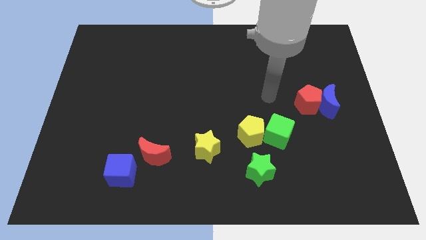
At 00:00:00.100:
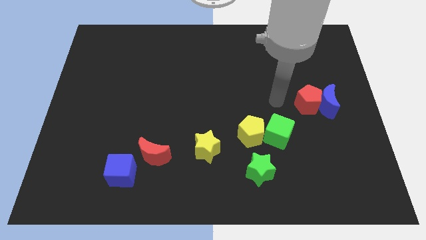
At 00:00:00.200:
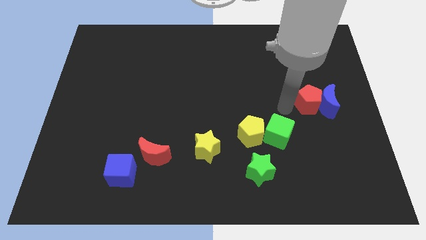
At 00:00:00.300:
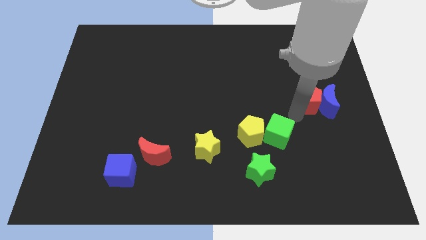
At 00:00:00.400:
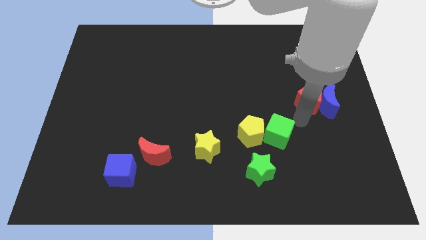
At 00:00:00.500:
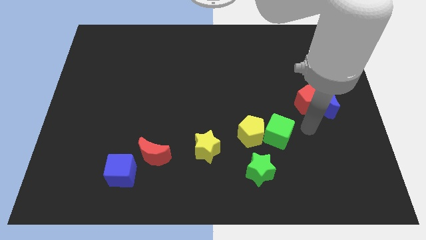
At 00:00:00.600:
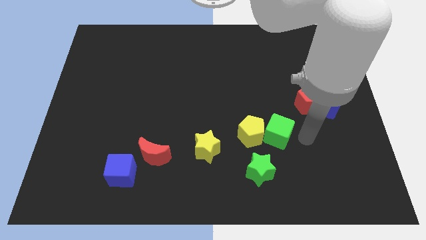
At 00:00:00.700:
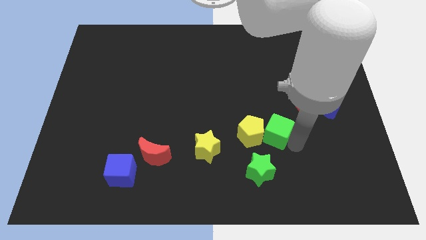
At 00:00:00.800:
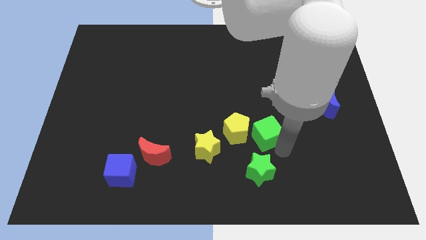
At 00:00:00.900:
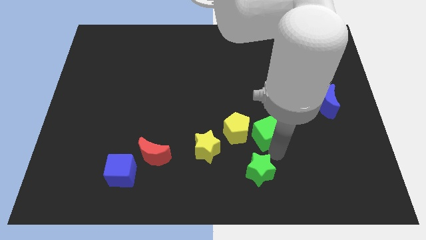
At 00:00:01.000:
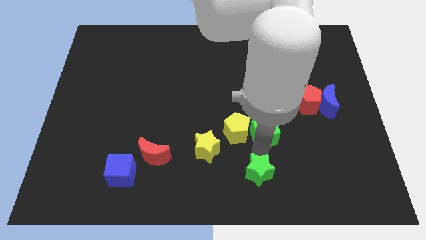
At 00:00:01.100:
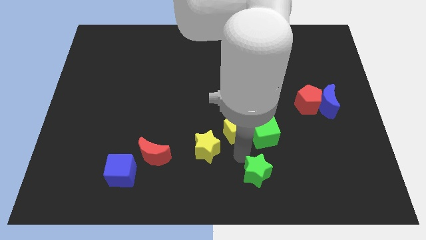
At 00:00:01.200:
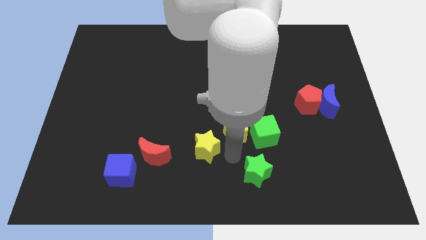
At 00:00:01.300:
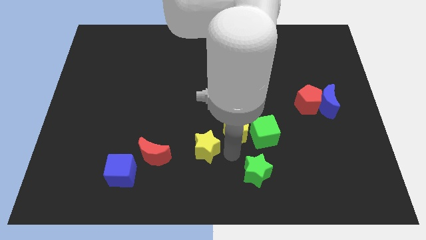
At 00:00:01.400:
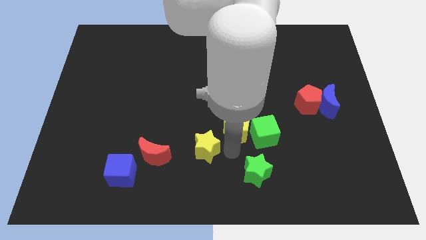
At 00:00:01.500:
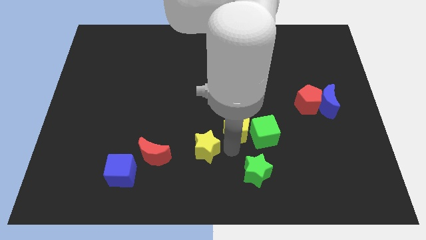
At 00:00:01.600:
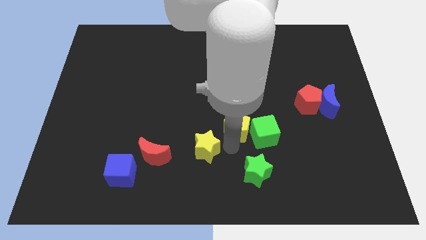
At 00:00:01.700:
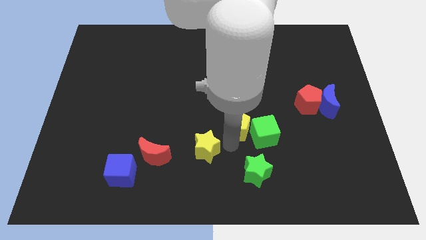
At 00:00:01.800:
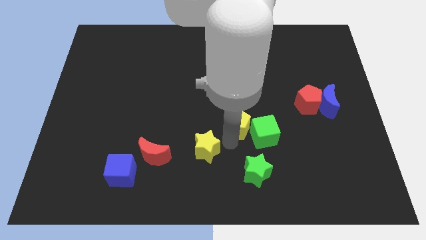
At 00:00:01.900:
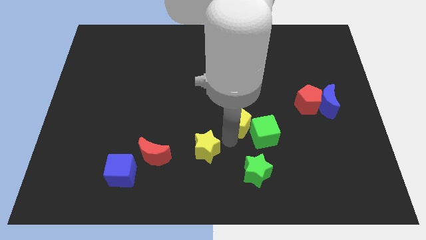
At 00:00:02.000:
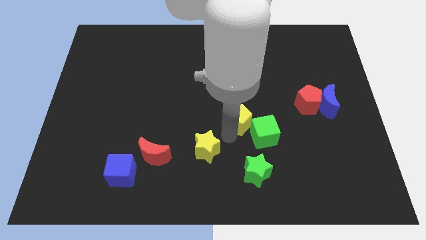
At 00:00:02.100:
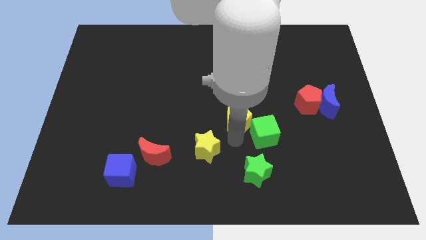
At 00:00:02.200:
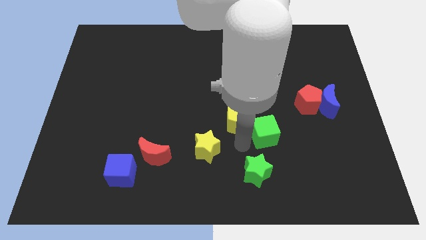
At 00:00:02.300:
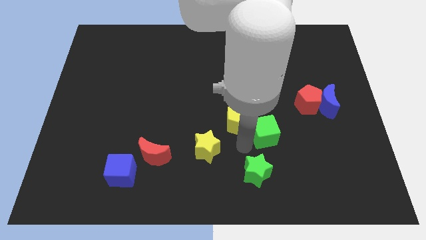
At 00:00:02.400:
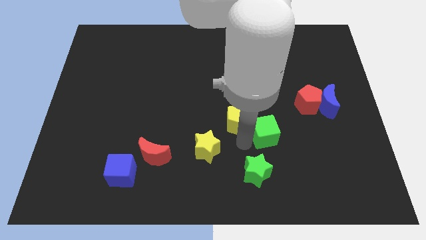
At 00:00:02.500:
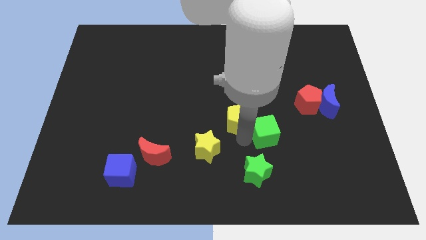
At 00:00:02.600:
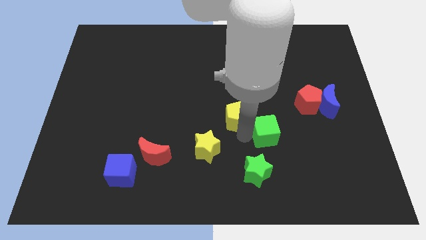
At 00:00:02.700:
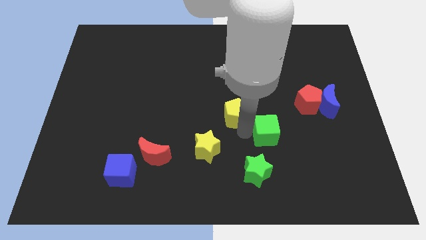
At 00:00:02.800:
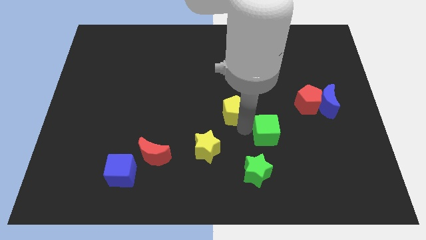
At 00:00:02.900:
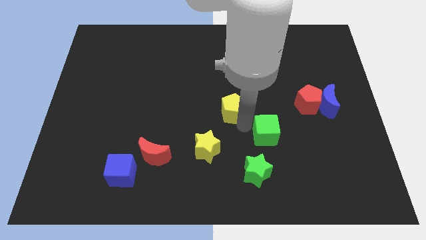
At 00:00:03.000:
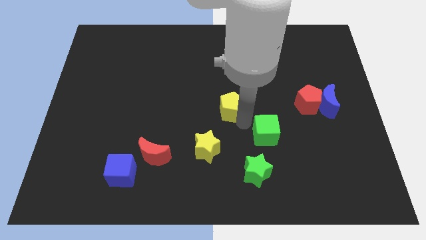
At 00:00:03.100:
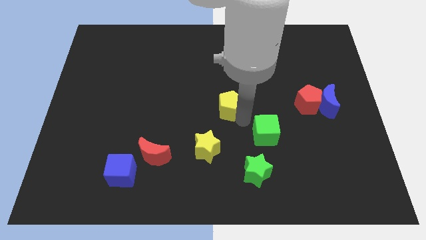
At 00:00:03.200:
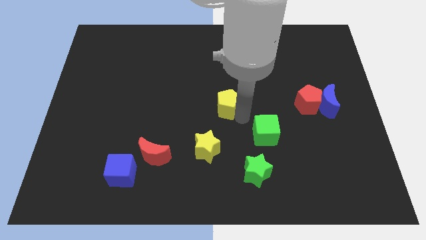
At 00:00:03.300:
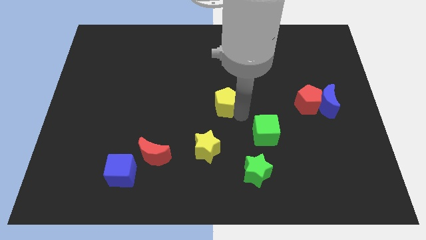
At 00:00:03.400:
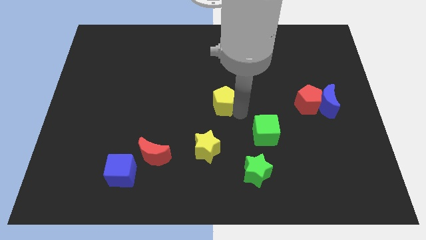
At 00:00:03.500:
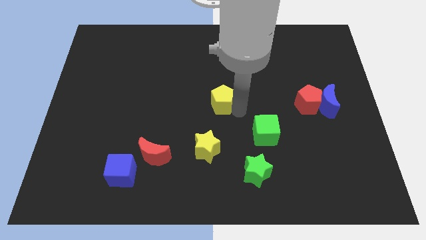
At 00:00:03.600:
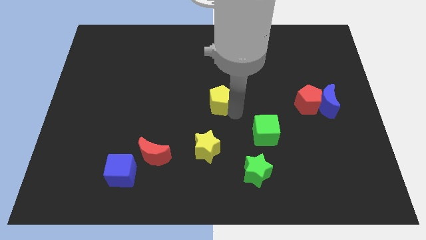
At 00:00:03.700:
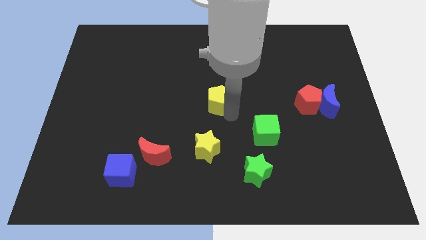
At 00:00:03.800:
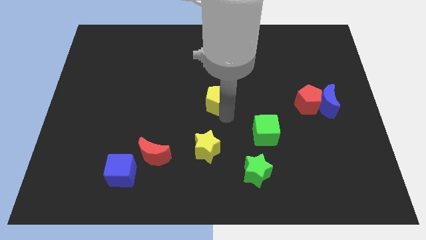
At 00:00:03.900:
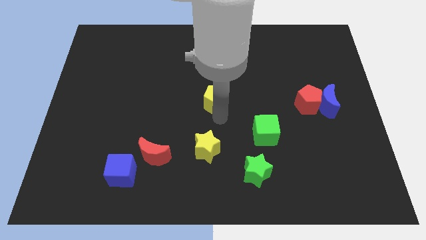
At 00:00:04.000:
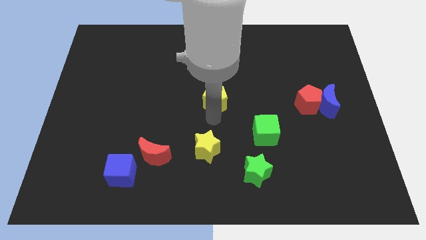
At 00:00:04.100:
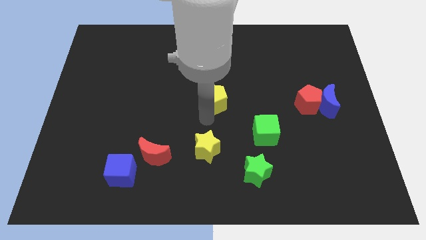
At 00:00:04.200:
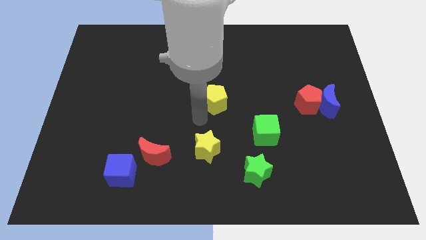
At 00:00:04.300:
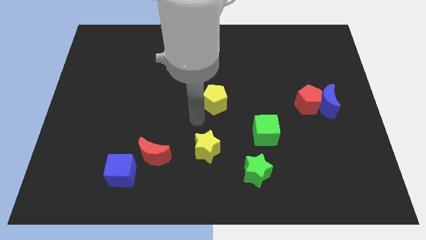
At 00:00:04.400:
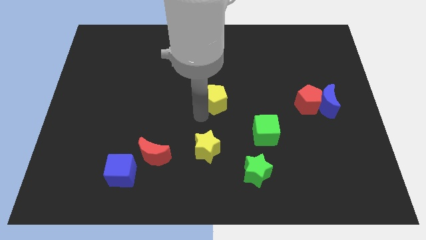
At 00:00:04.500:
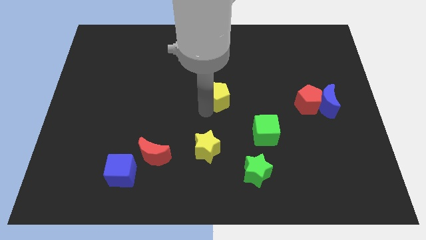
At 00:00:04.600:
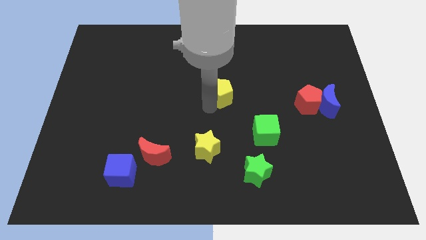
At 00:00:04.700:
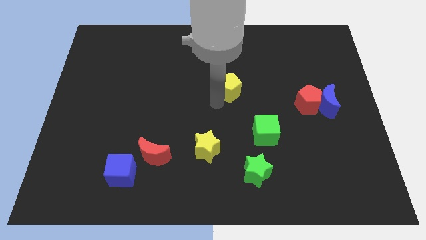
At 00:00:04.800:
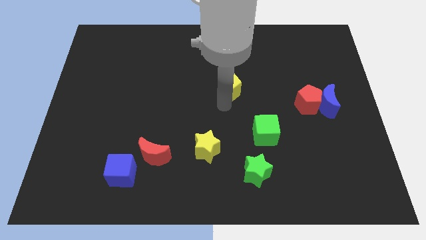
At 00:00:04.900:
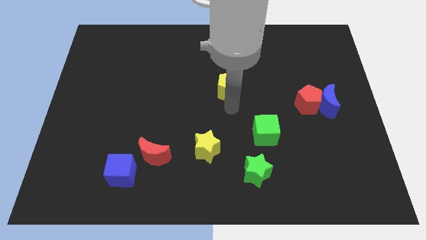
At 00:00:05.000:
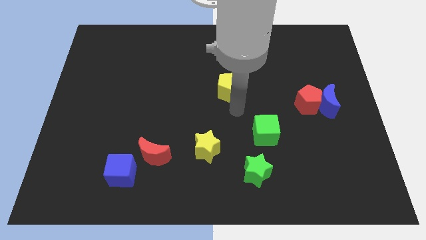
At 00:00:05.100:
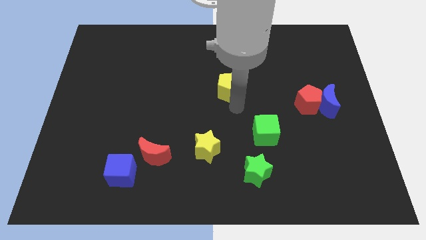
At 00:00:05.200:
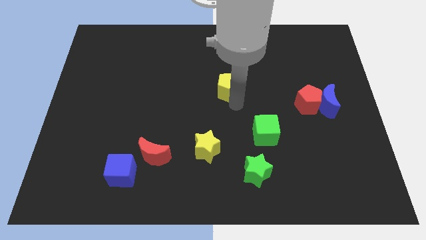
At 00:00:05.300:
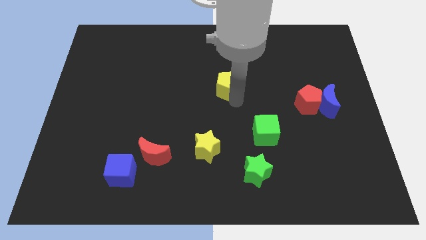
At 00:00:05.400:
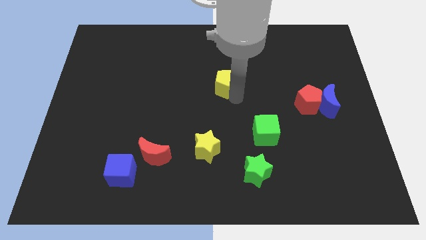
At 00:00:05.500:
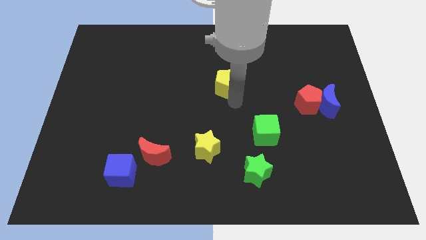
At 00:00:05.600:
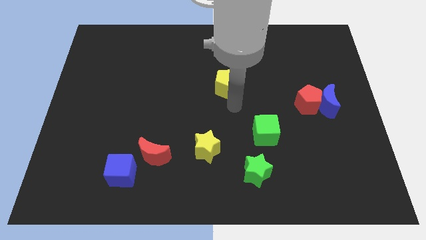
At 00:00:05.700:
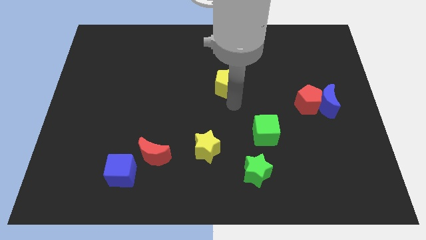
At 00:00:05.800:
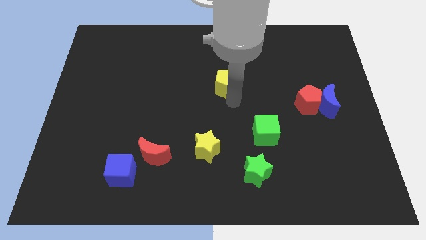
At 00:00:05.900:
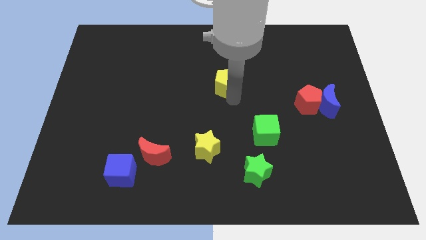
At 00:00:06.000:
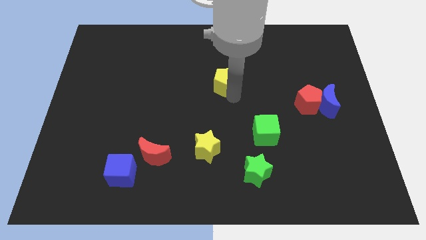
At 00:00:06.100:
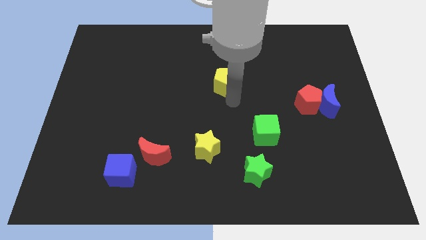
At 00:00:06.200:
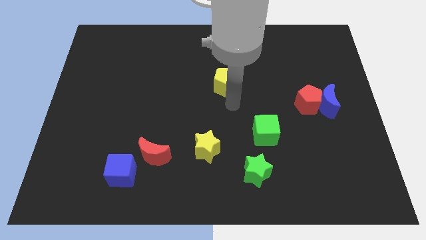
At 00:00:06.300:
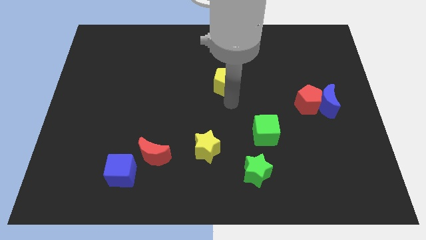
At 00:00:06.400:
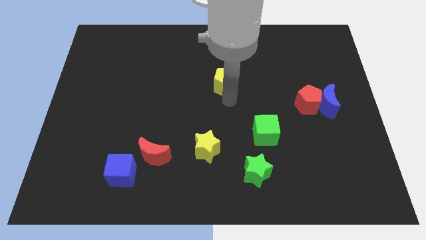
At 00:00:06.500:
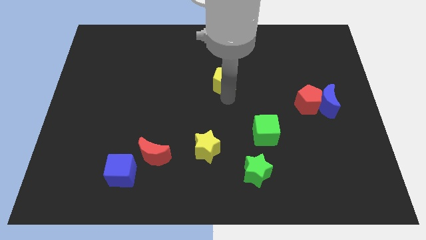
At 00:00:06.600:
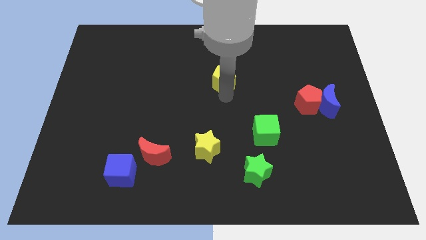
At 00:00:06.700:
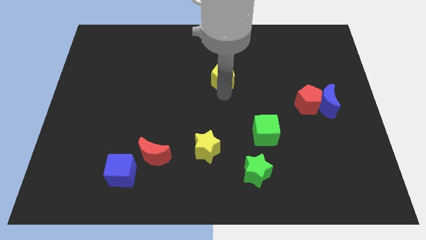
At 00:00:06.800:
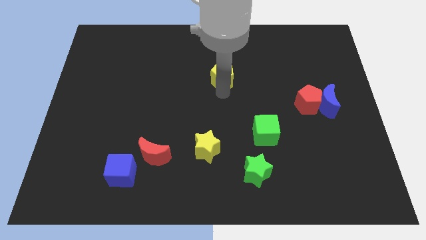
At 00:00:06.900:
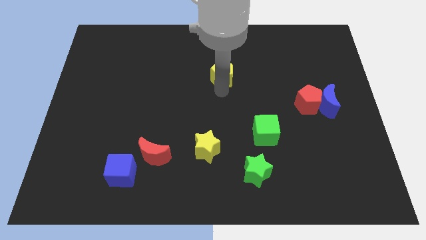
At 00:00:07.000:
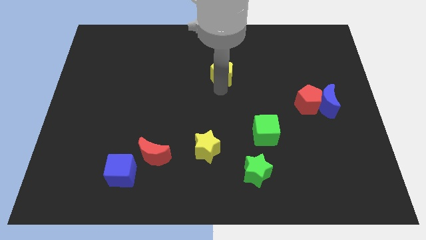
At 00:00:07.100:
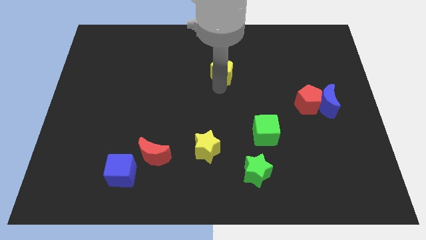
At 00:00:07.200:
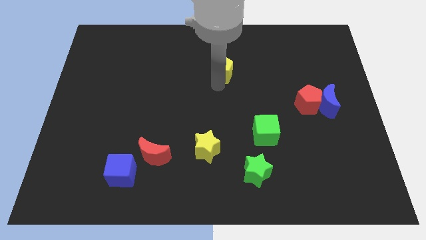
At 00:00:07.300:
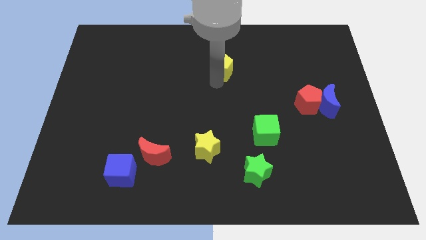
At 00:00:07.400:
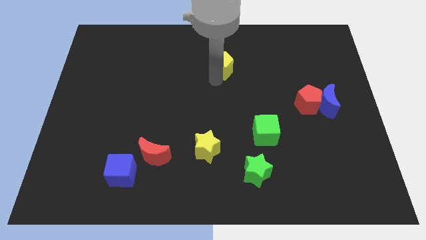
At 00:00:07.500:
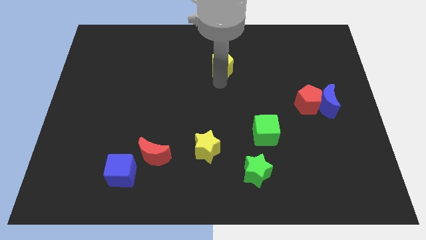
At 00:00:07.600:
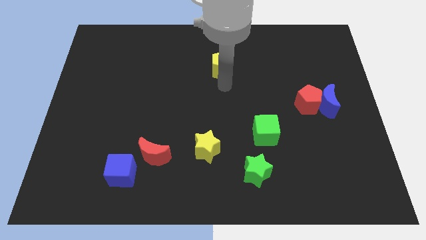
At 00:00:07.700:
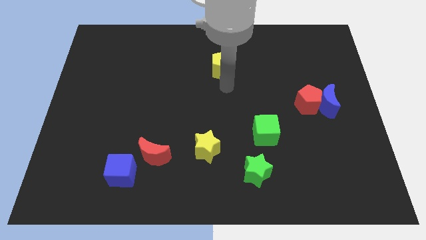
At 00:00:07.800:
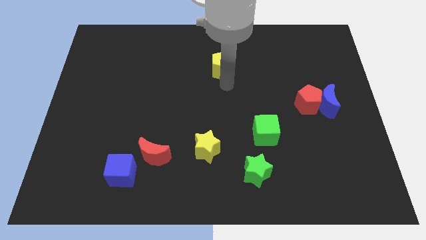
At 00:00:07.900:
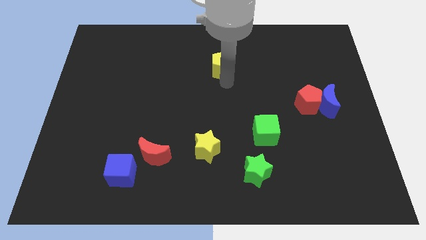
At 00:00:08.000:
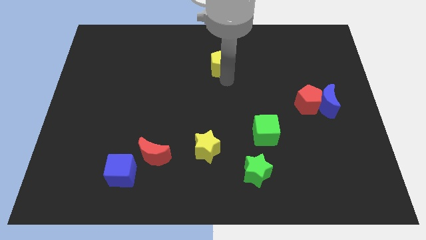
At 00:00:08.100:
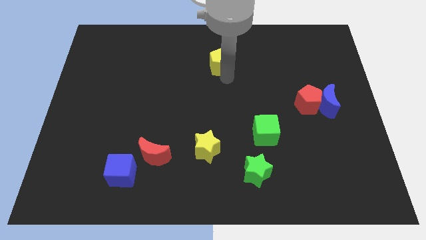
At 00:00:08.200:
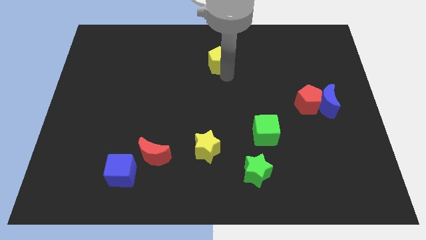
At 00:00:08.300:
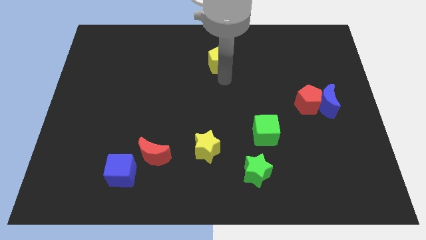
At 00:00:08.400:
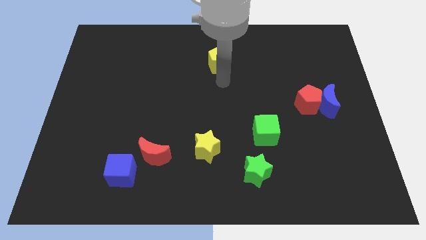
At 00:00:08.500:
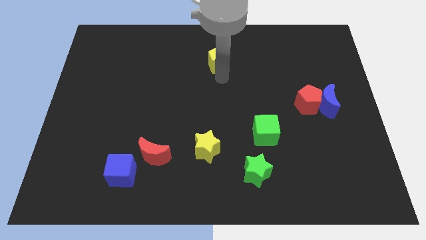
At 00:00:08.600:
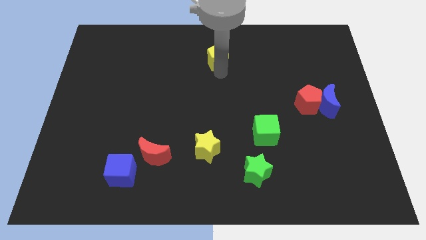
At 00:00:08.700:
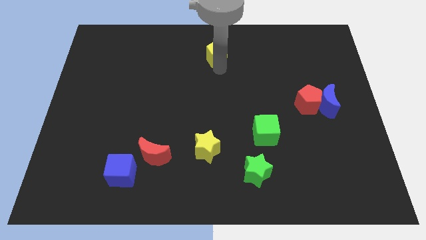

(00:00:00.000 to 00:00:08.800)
slide the yellow pentagon to the towards your base
